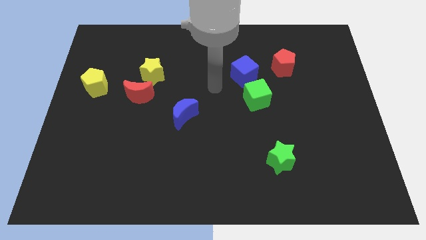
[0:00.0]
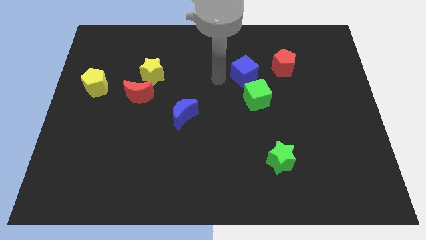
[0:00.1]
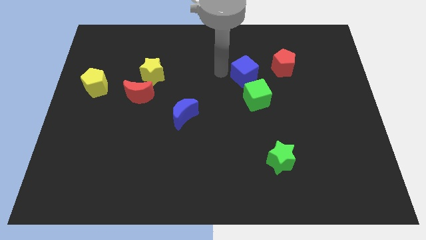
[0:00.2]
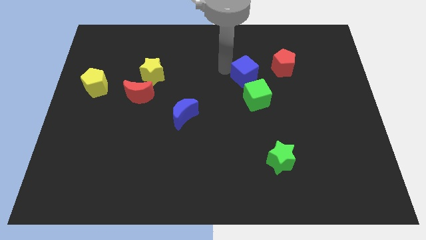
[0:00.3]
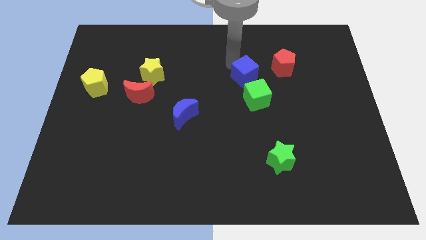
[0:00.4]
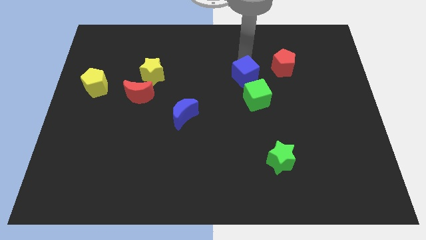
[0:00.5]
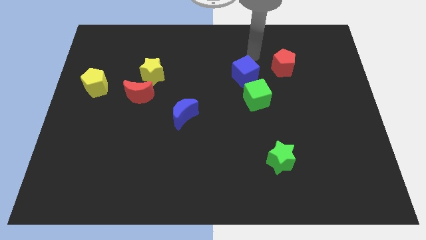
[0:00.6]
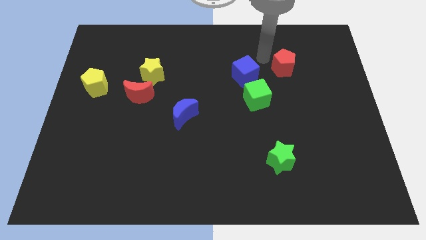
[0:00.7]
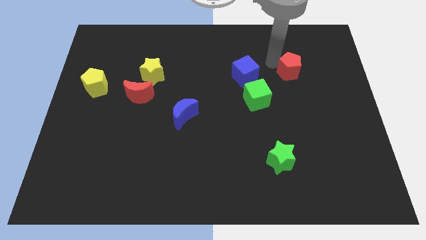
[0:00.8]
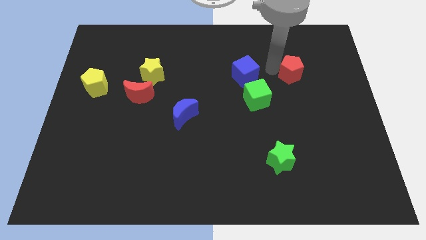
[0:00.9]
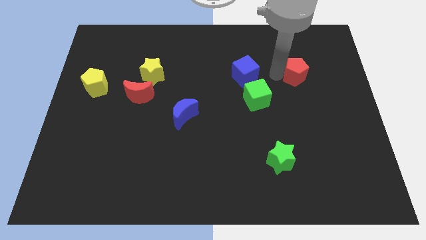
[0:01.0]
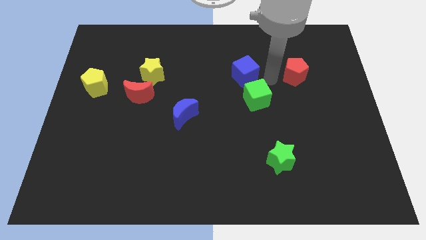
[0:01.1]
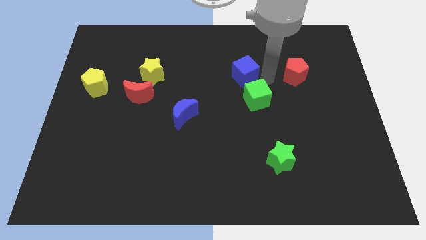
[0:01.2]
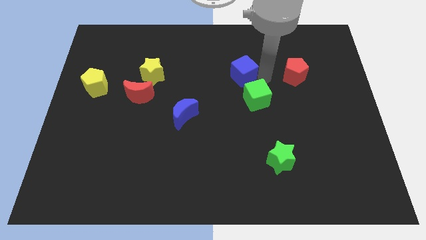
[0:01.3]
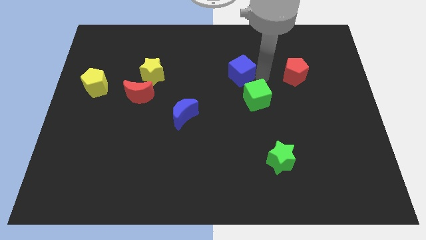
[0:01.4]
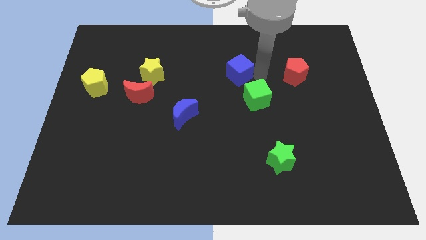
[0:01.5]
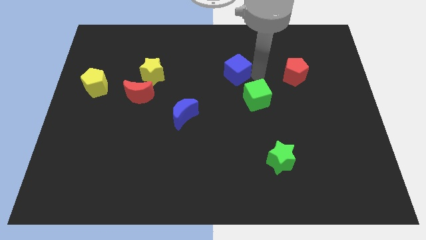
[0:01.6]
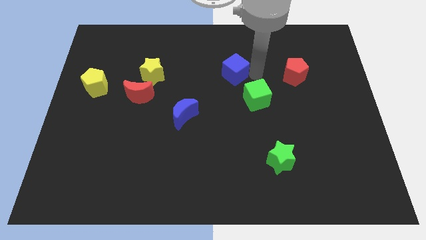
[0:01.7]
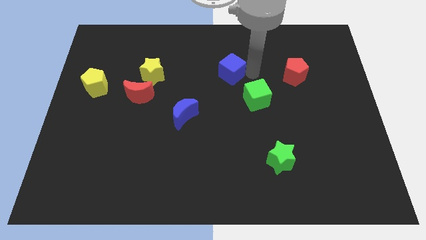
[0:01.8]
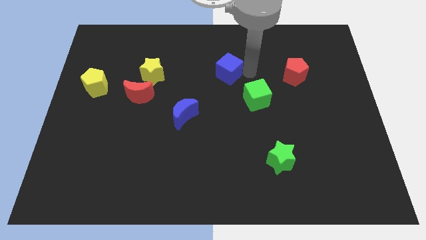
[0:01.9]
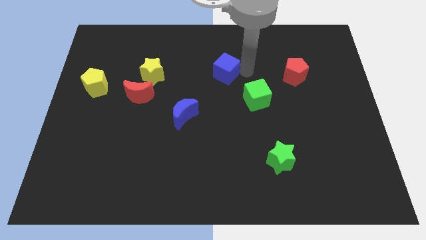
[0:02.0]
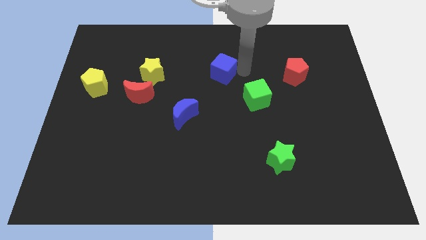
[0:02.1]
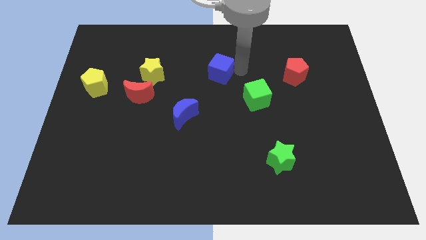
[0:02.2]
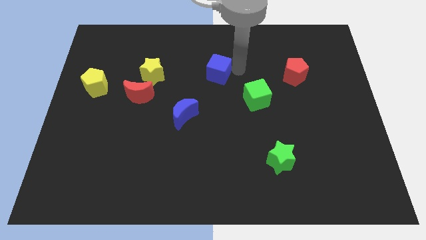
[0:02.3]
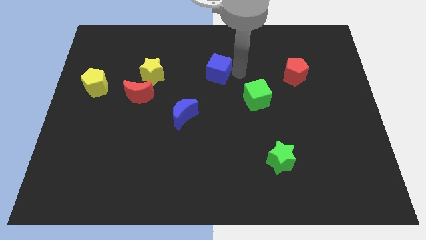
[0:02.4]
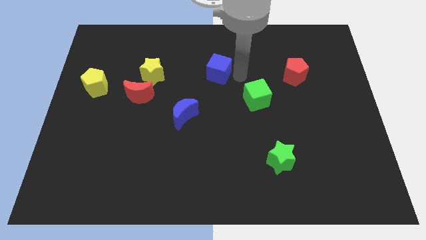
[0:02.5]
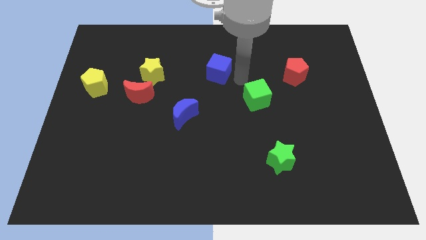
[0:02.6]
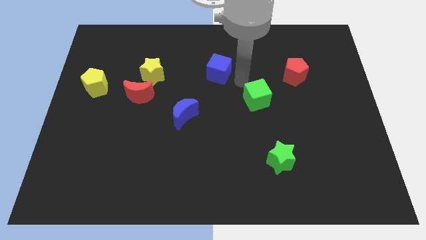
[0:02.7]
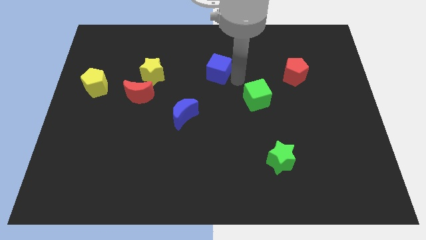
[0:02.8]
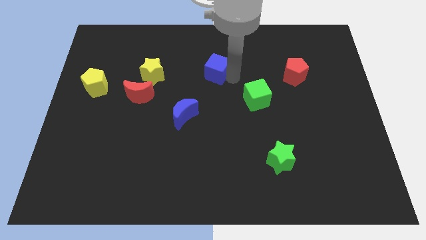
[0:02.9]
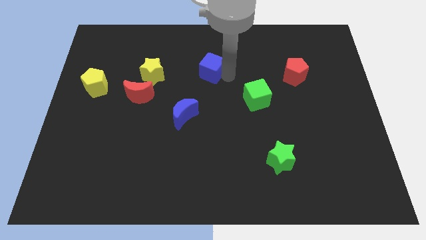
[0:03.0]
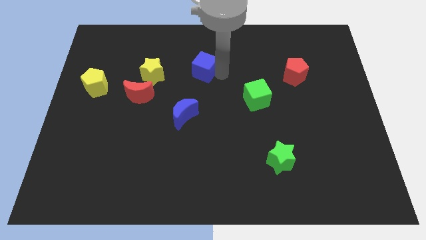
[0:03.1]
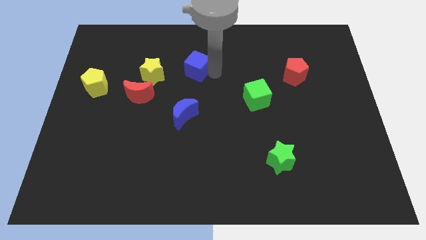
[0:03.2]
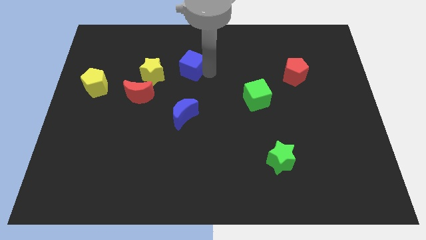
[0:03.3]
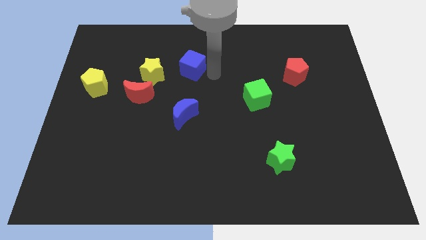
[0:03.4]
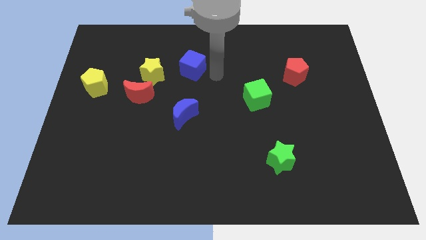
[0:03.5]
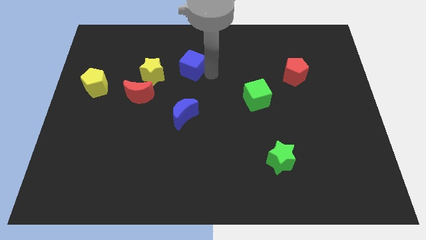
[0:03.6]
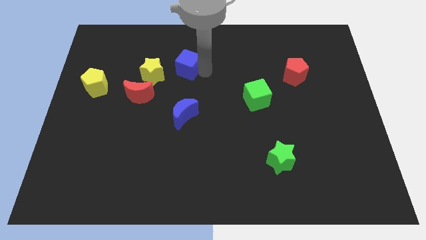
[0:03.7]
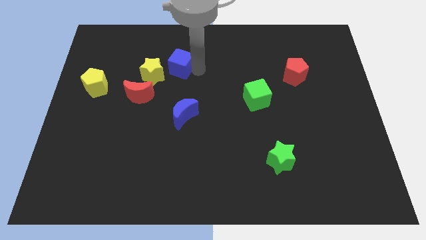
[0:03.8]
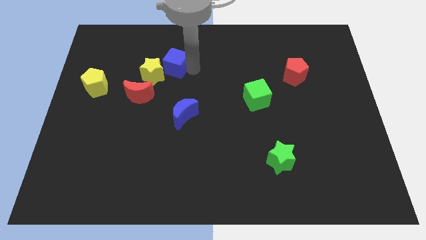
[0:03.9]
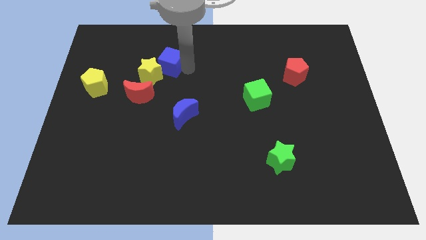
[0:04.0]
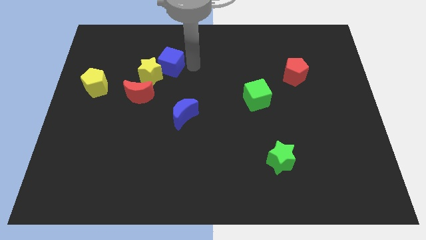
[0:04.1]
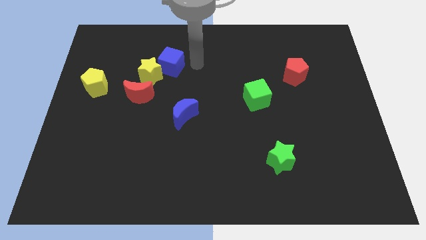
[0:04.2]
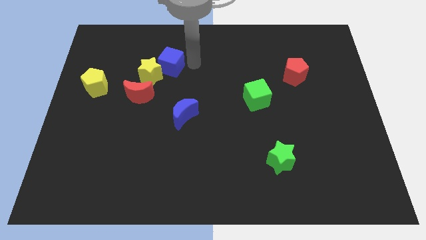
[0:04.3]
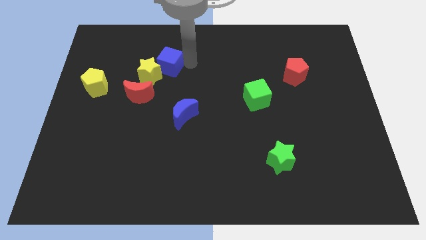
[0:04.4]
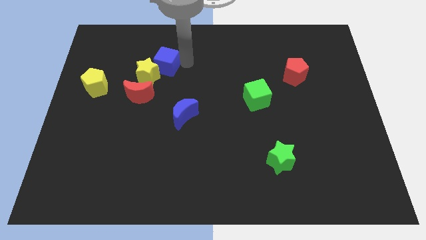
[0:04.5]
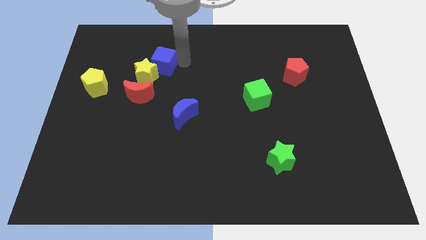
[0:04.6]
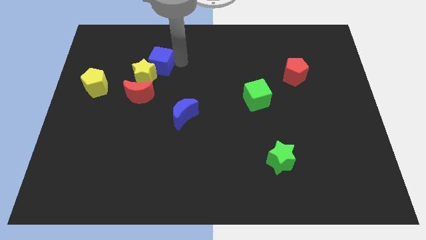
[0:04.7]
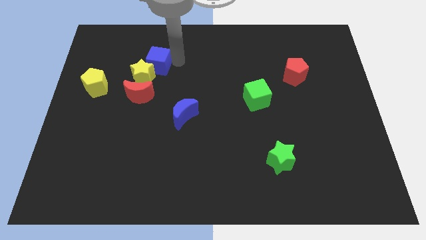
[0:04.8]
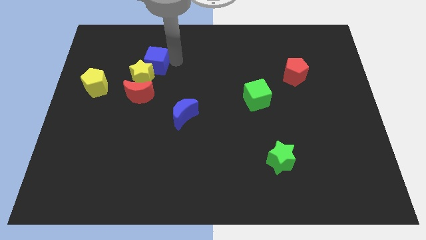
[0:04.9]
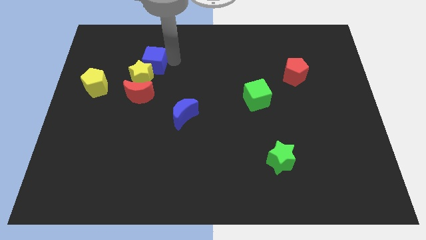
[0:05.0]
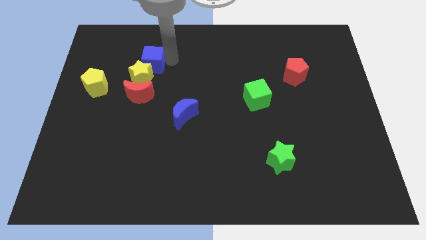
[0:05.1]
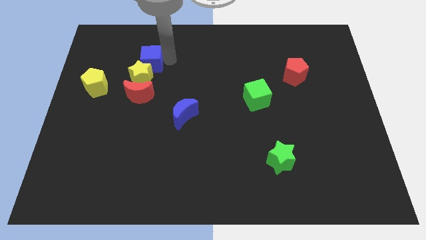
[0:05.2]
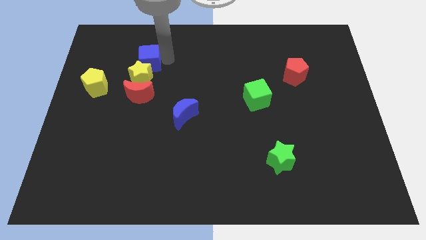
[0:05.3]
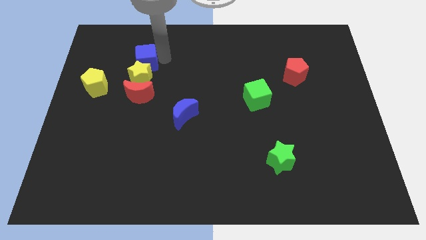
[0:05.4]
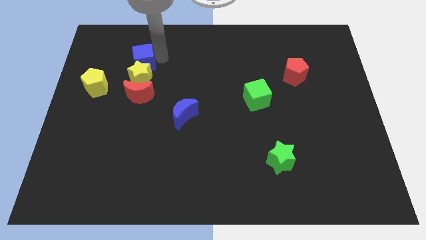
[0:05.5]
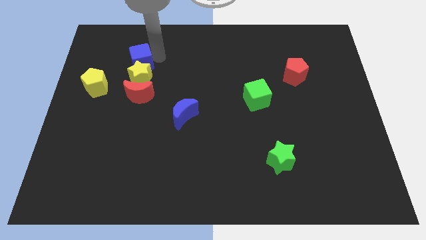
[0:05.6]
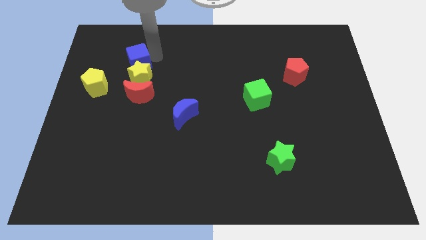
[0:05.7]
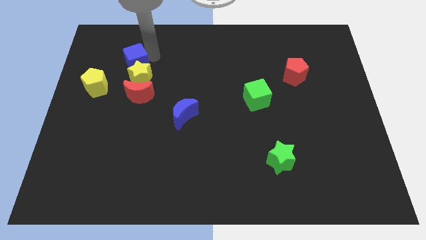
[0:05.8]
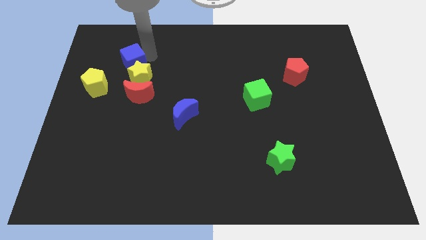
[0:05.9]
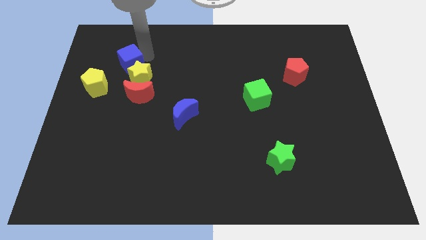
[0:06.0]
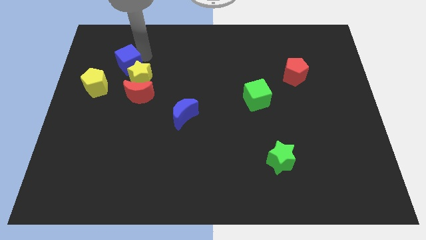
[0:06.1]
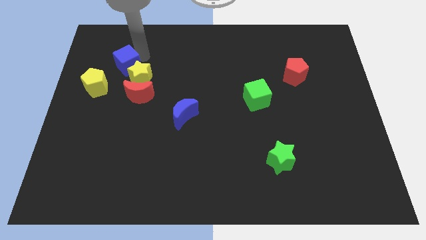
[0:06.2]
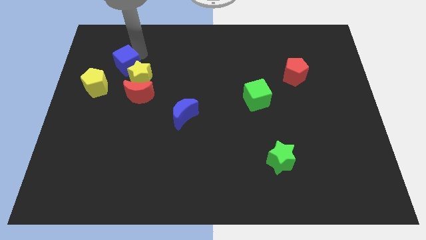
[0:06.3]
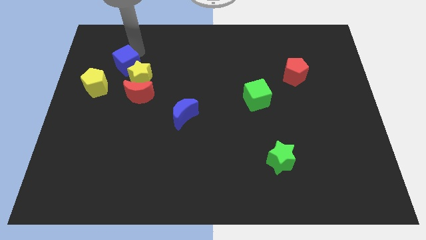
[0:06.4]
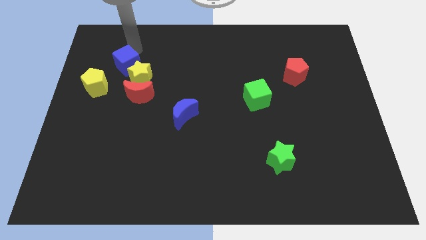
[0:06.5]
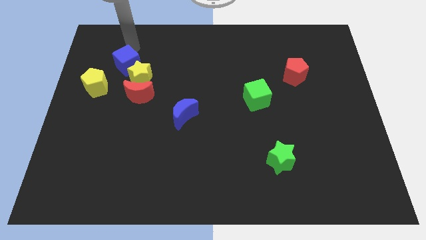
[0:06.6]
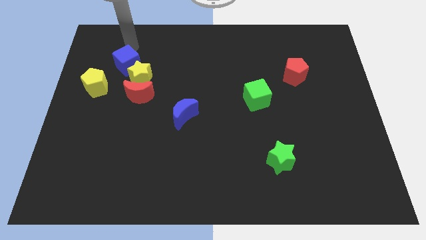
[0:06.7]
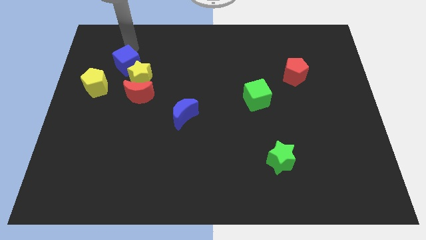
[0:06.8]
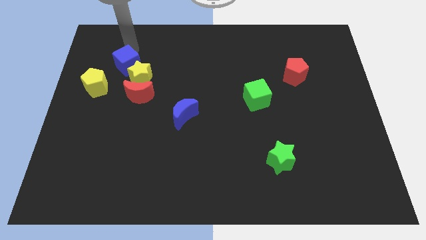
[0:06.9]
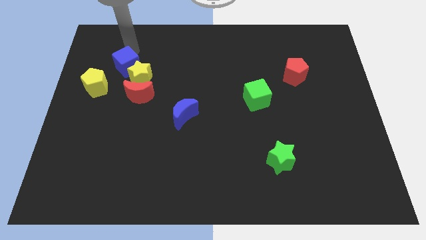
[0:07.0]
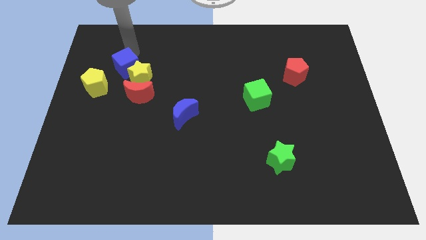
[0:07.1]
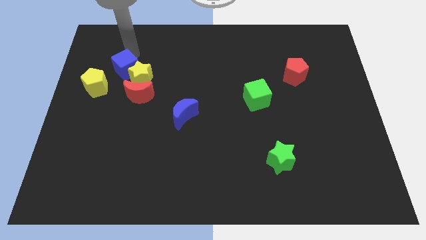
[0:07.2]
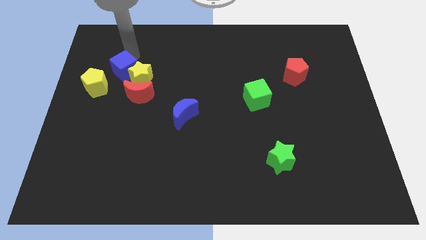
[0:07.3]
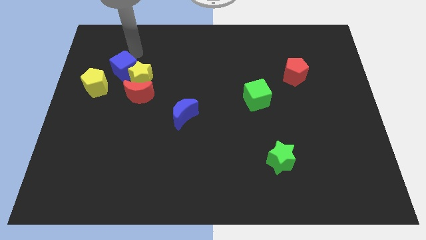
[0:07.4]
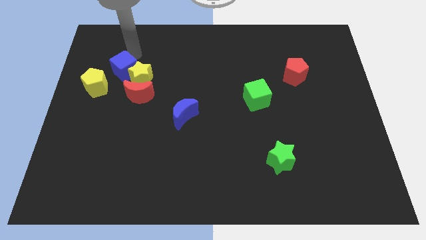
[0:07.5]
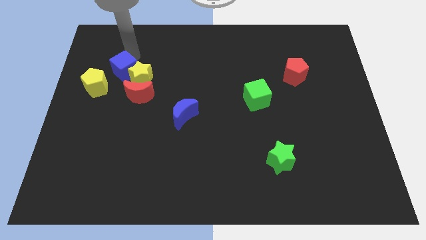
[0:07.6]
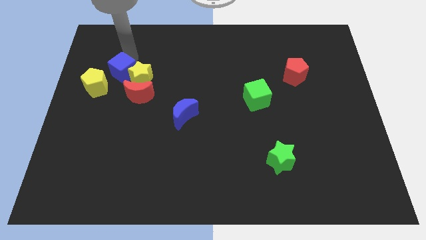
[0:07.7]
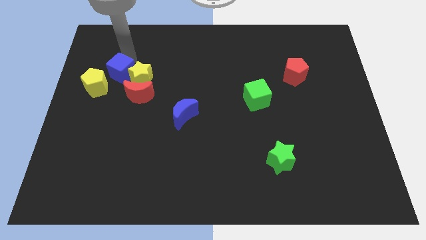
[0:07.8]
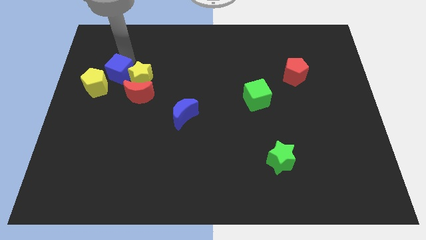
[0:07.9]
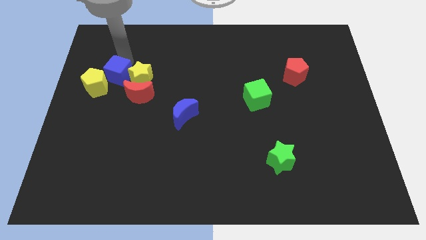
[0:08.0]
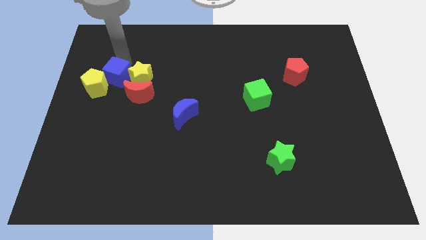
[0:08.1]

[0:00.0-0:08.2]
move the blue cube next to the yellow pentagon
